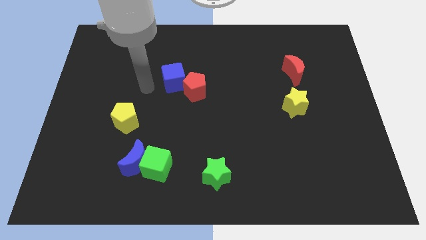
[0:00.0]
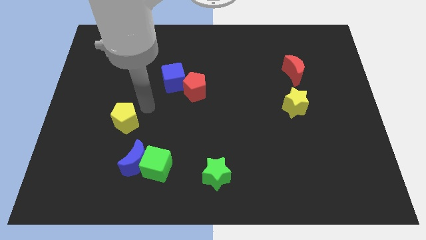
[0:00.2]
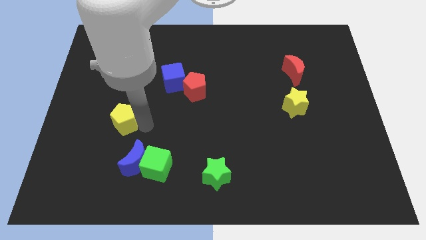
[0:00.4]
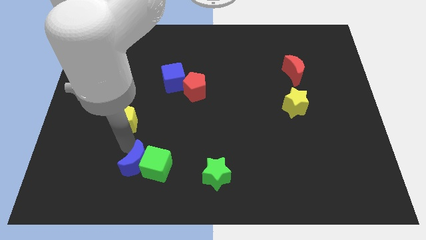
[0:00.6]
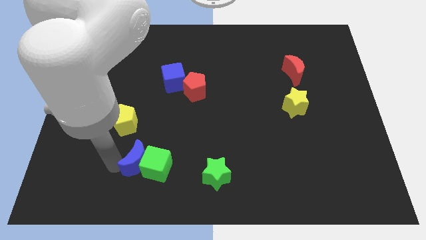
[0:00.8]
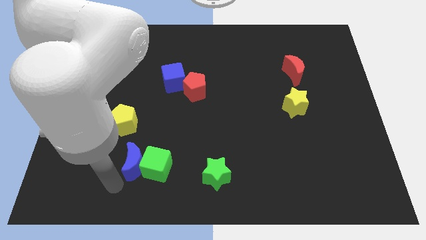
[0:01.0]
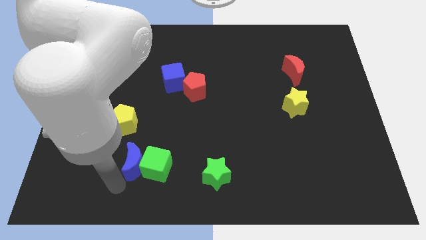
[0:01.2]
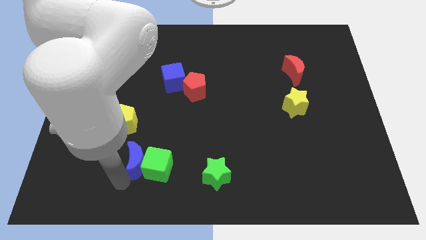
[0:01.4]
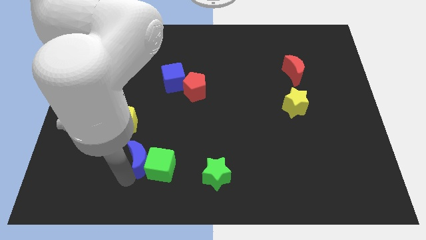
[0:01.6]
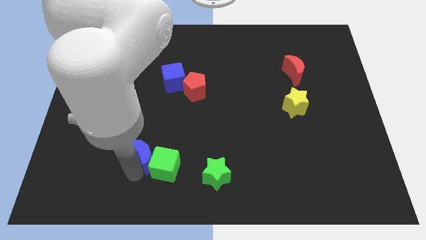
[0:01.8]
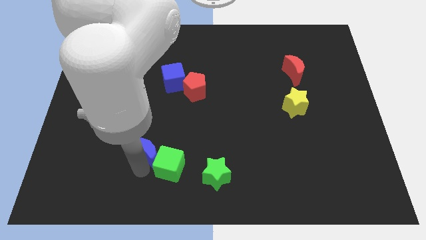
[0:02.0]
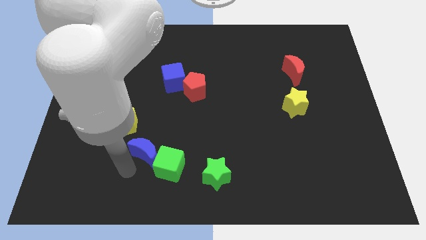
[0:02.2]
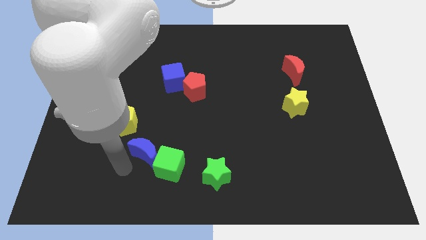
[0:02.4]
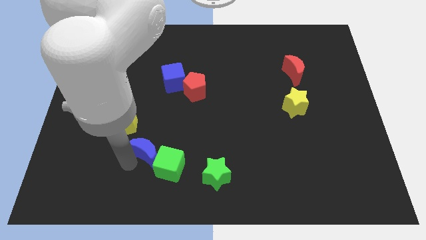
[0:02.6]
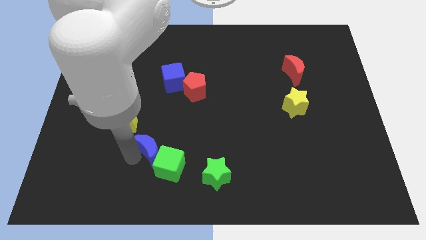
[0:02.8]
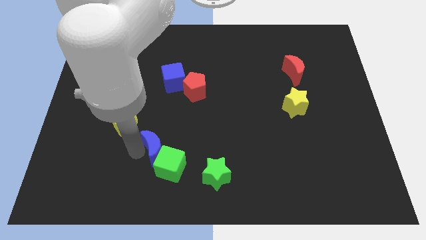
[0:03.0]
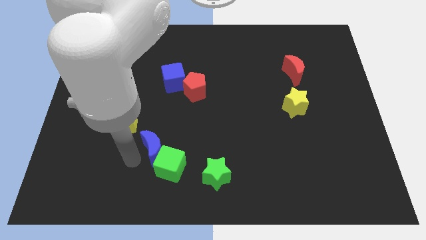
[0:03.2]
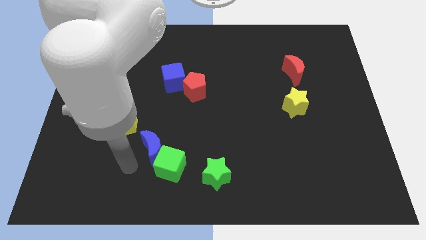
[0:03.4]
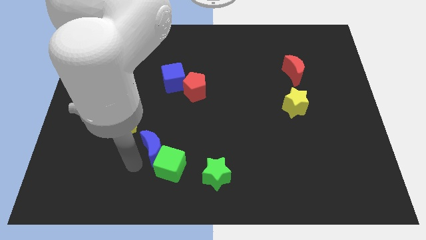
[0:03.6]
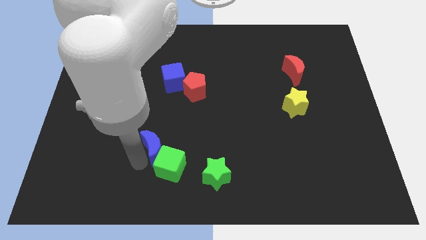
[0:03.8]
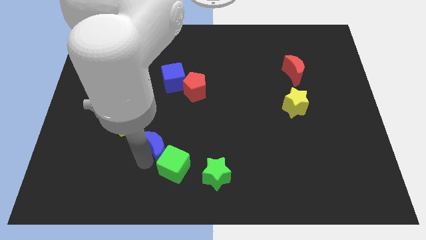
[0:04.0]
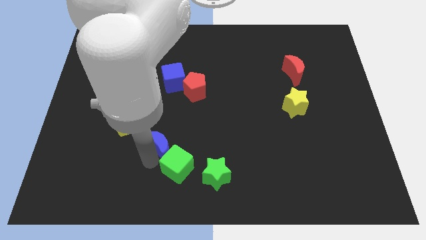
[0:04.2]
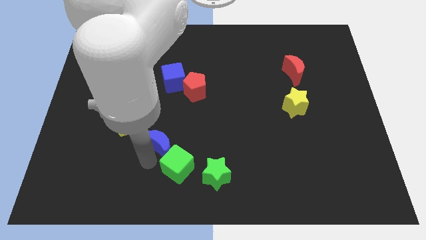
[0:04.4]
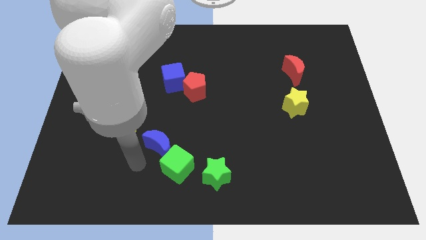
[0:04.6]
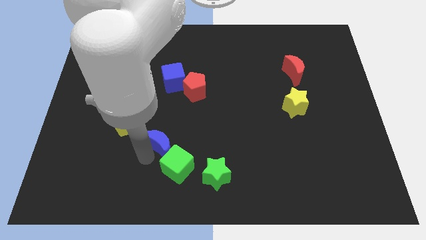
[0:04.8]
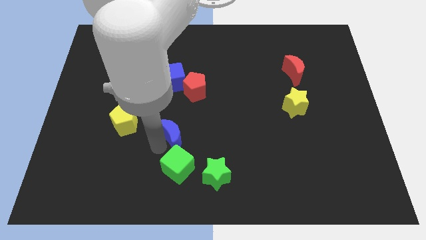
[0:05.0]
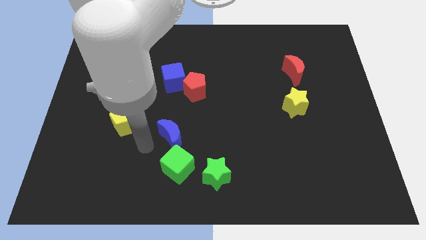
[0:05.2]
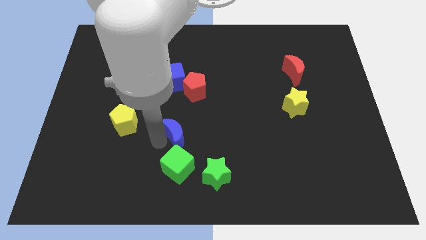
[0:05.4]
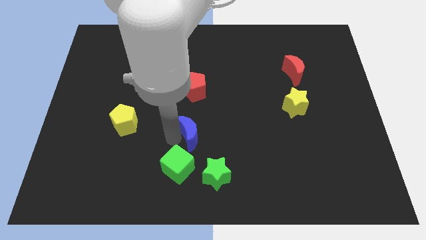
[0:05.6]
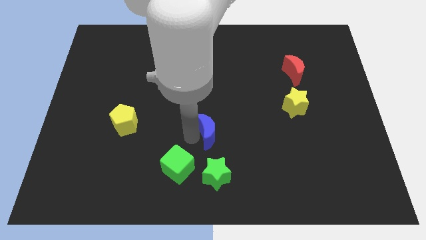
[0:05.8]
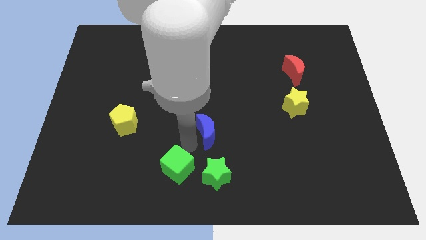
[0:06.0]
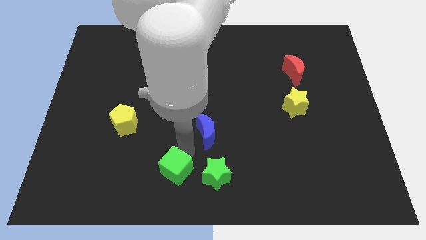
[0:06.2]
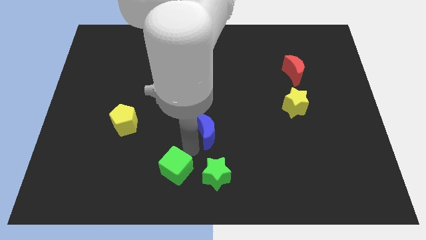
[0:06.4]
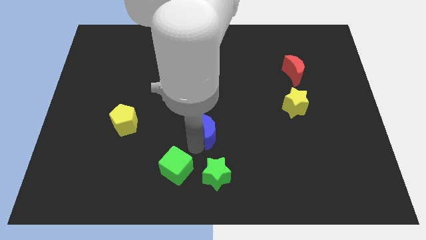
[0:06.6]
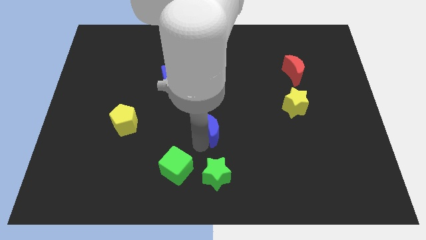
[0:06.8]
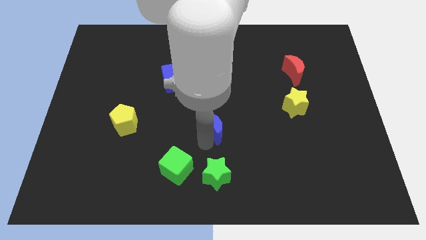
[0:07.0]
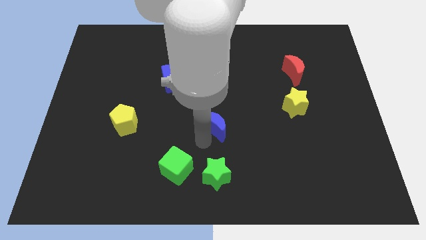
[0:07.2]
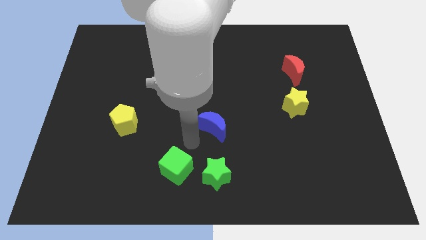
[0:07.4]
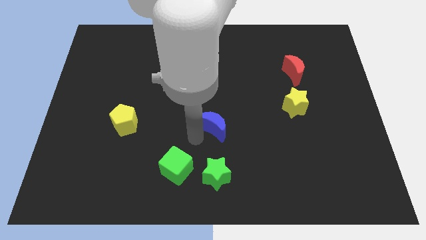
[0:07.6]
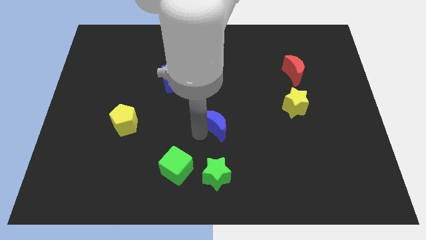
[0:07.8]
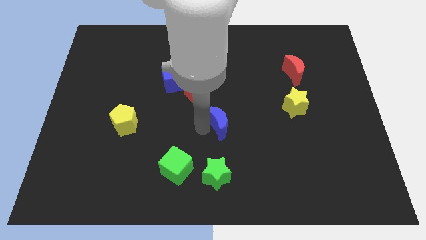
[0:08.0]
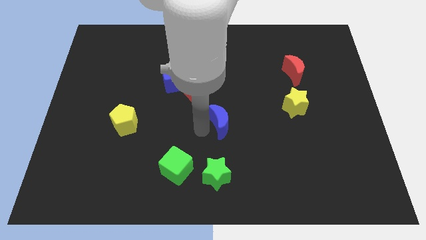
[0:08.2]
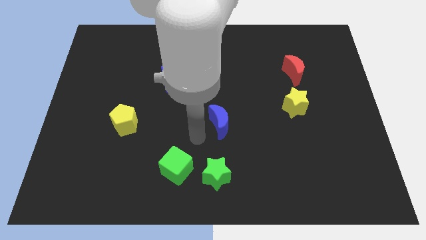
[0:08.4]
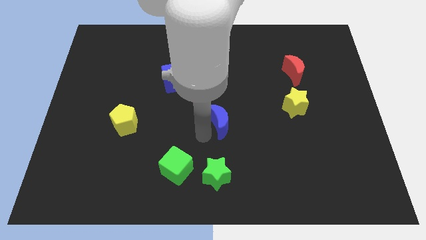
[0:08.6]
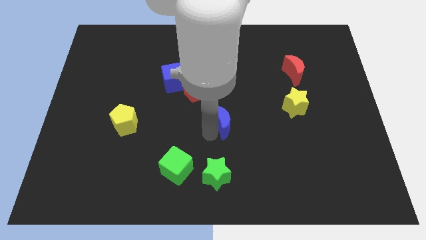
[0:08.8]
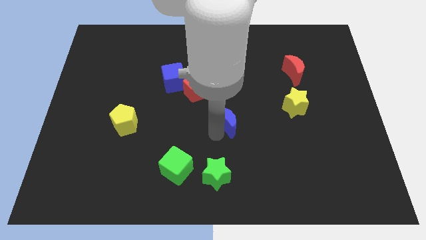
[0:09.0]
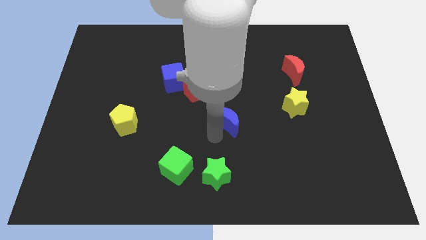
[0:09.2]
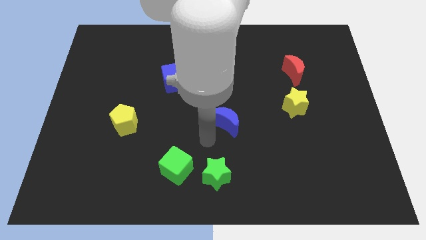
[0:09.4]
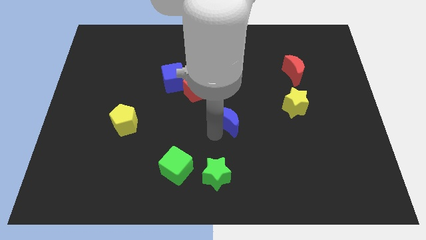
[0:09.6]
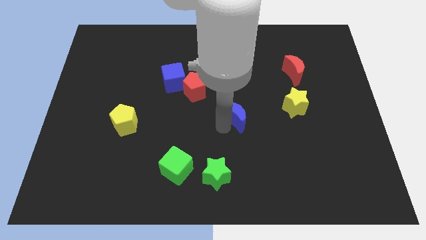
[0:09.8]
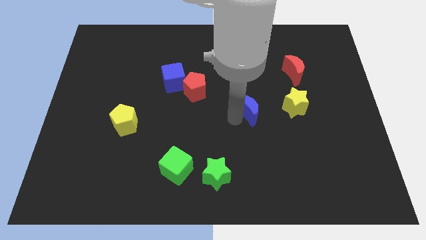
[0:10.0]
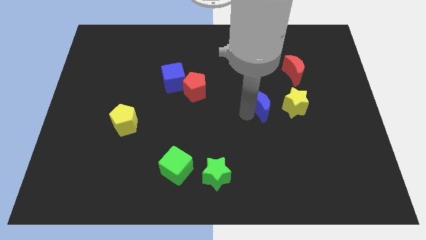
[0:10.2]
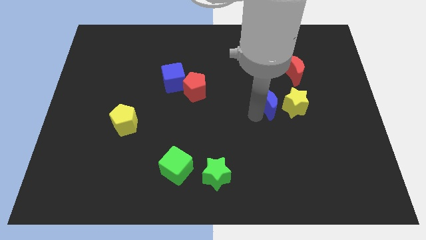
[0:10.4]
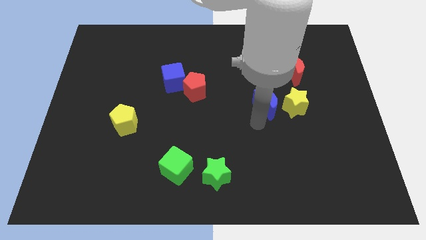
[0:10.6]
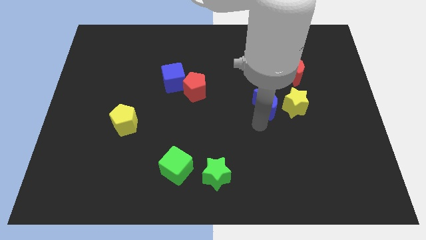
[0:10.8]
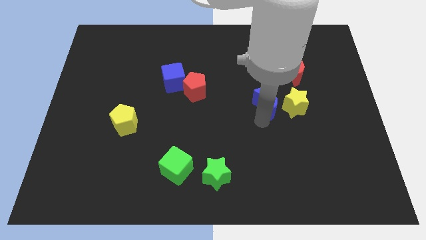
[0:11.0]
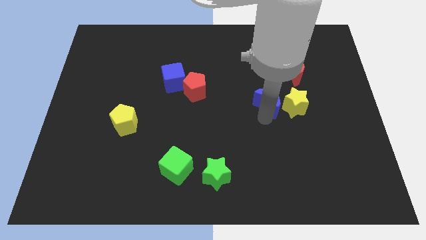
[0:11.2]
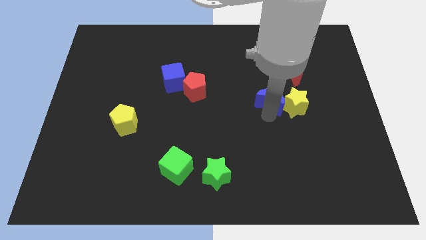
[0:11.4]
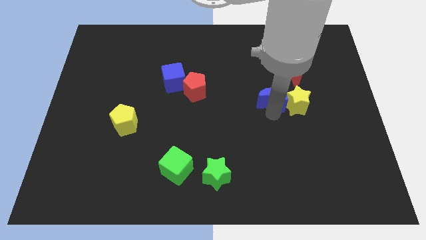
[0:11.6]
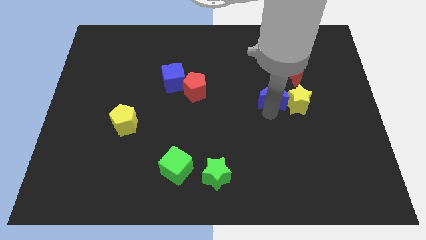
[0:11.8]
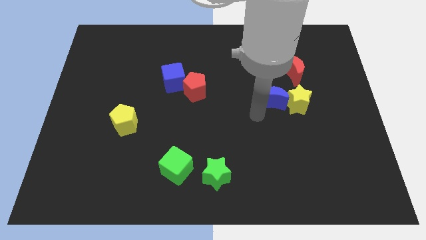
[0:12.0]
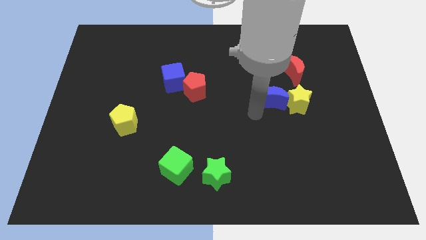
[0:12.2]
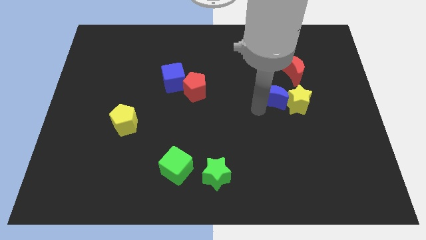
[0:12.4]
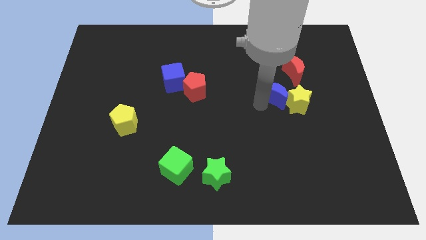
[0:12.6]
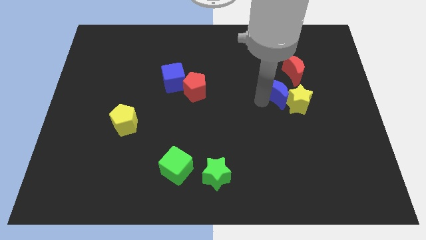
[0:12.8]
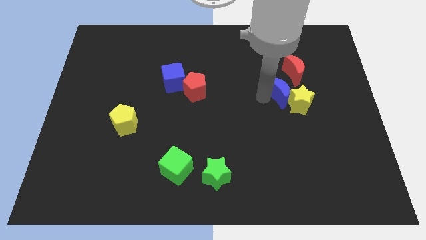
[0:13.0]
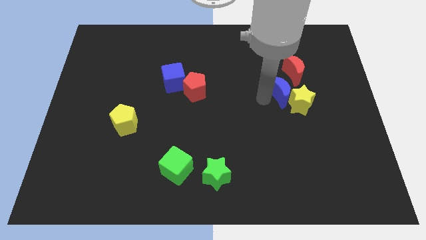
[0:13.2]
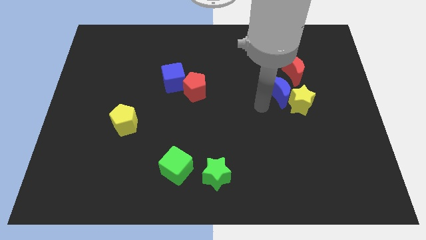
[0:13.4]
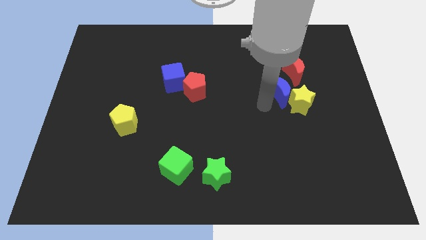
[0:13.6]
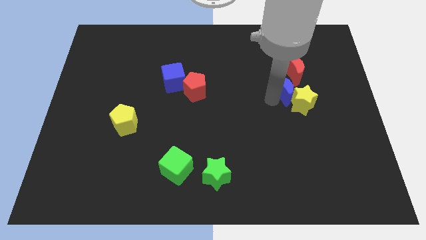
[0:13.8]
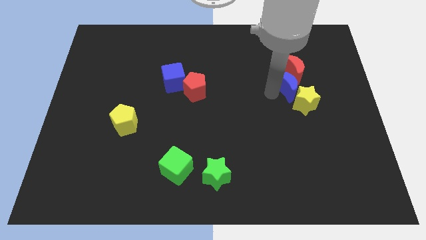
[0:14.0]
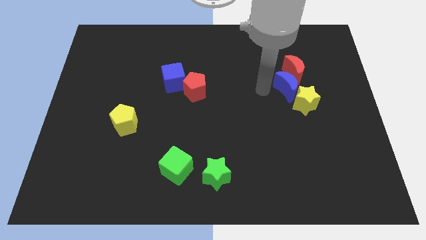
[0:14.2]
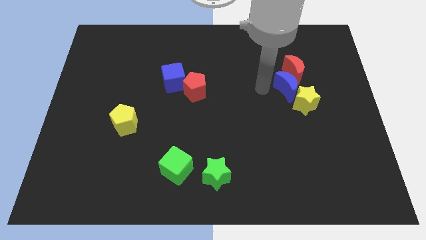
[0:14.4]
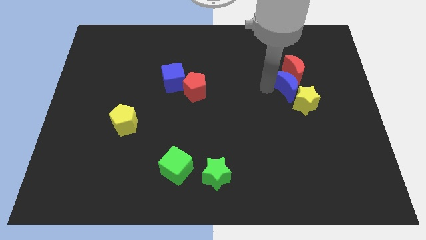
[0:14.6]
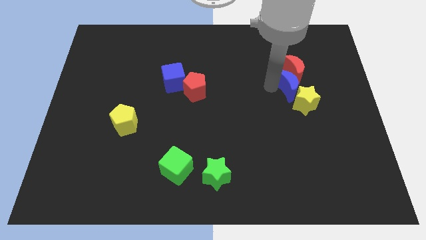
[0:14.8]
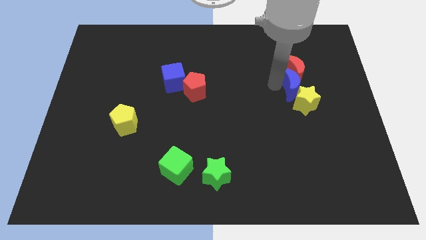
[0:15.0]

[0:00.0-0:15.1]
push the blue moon diagonally down and to the right of the red moon
